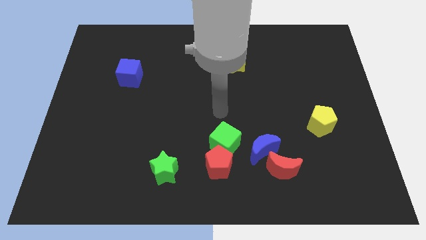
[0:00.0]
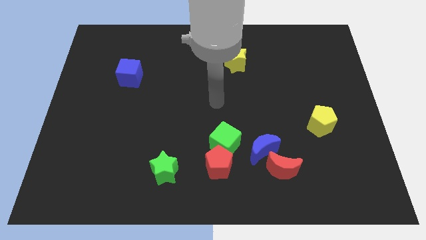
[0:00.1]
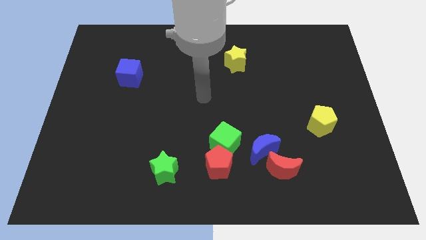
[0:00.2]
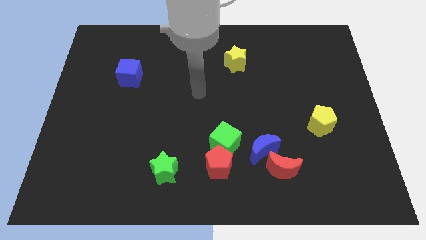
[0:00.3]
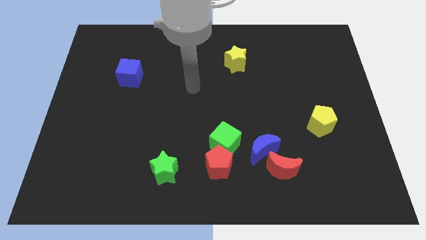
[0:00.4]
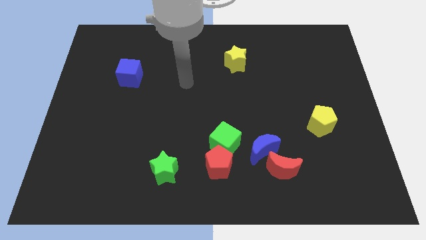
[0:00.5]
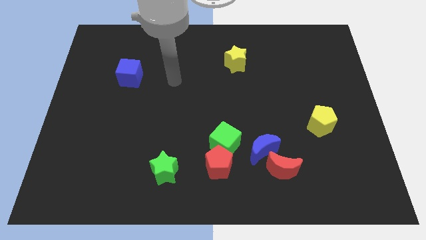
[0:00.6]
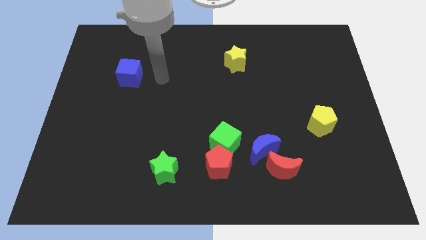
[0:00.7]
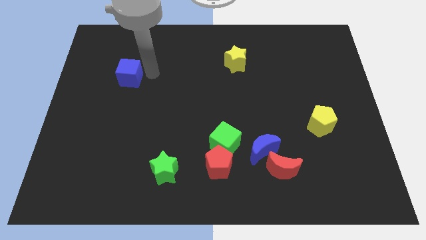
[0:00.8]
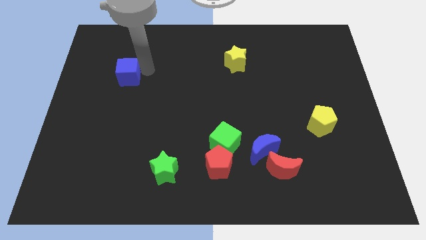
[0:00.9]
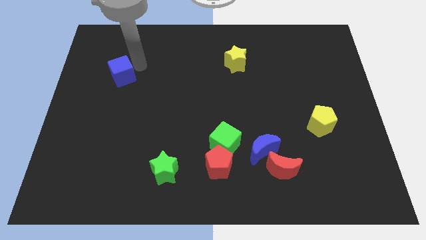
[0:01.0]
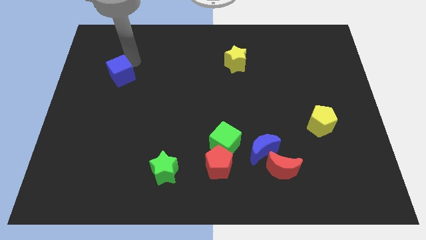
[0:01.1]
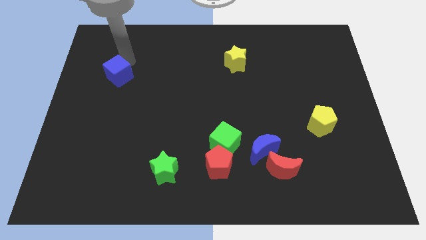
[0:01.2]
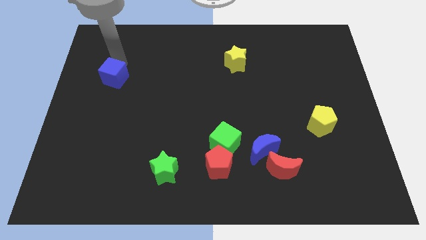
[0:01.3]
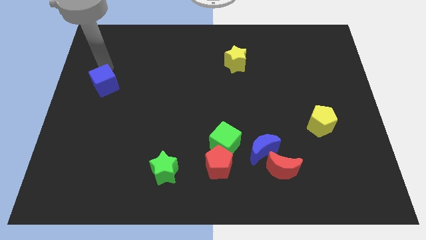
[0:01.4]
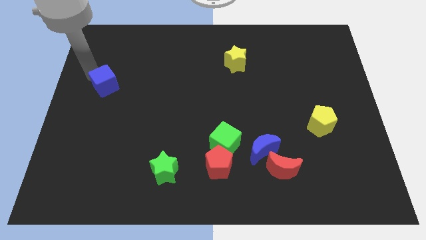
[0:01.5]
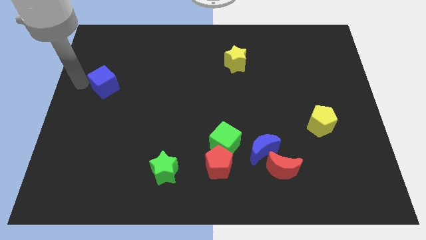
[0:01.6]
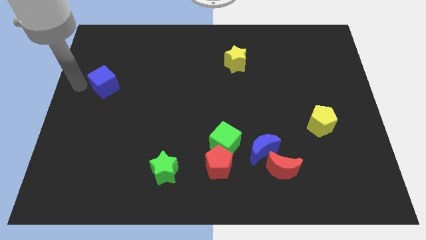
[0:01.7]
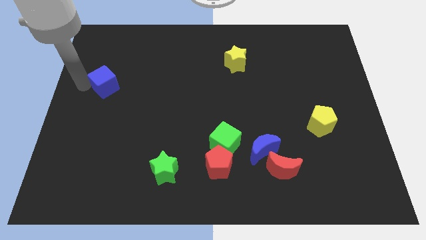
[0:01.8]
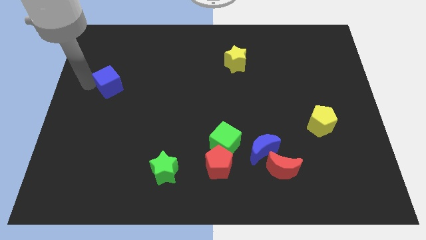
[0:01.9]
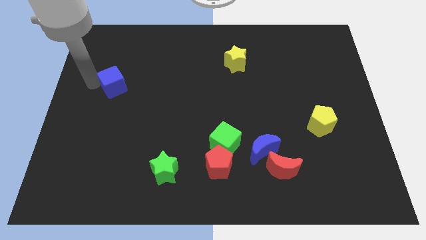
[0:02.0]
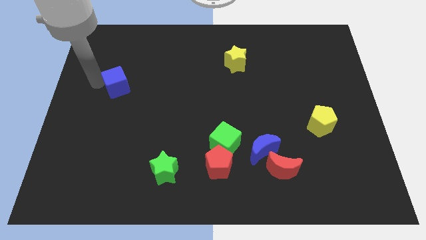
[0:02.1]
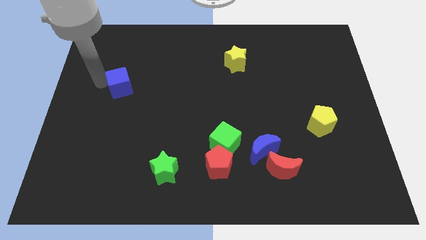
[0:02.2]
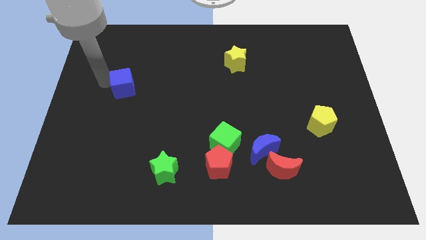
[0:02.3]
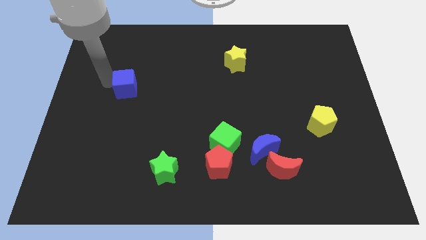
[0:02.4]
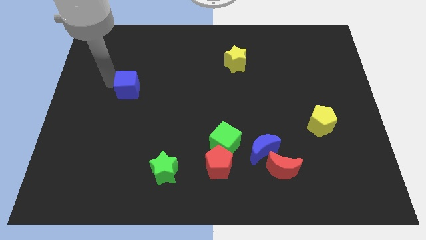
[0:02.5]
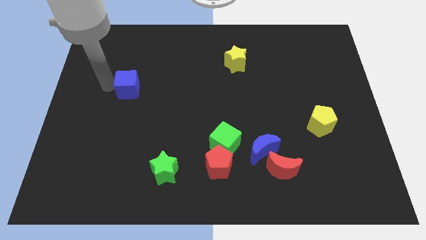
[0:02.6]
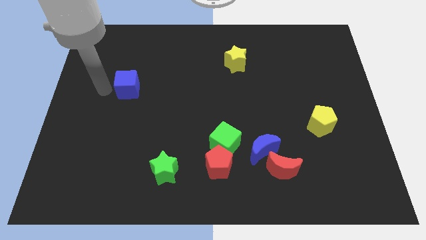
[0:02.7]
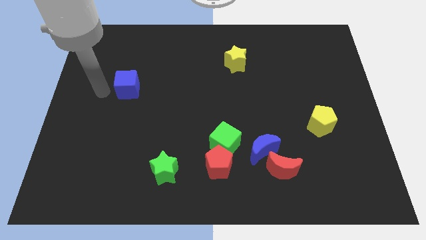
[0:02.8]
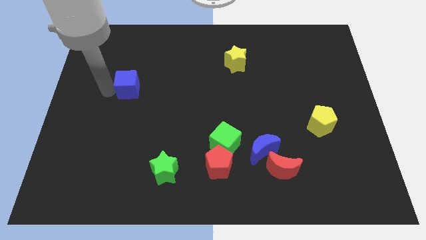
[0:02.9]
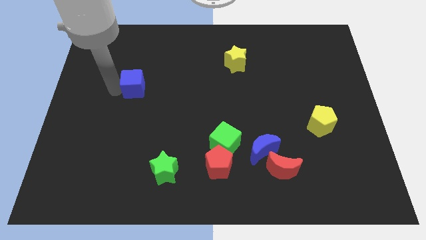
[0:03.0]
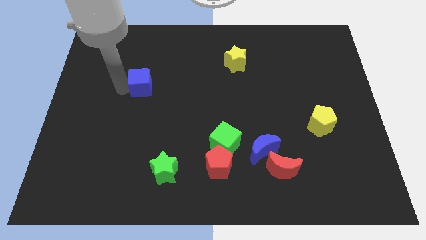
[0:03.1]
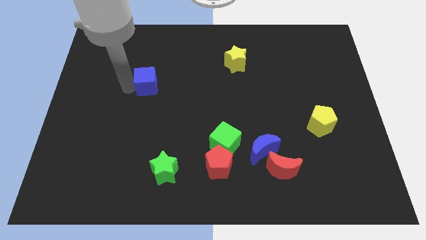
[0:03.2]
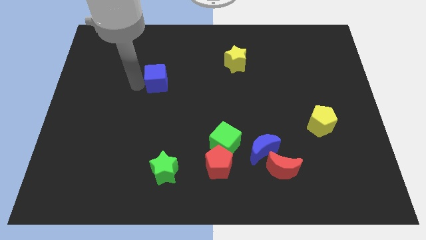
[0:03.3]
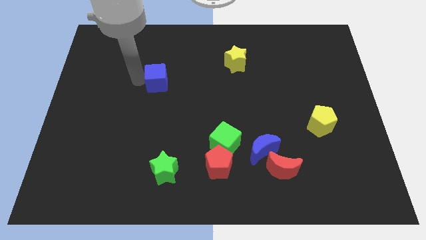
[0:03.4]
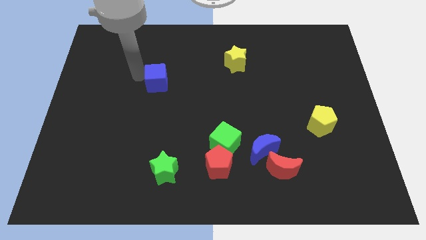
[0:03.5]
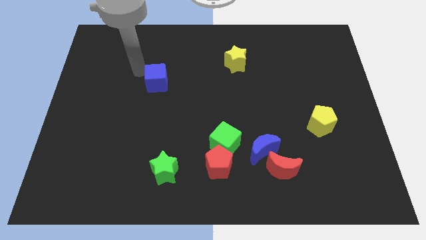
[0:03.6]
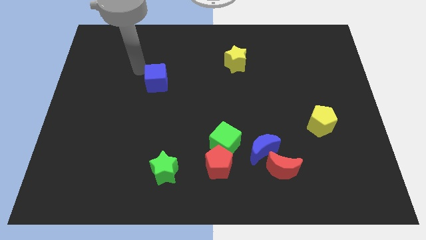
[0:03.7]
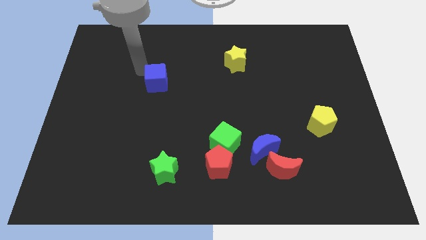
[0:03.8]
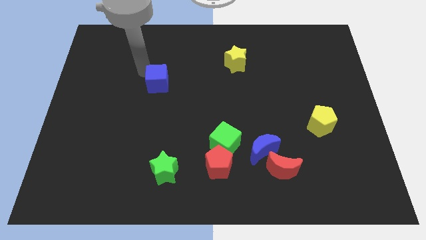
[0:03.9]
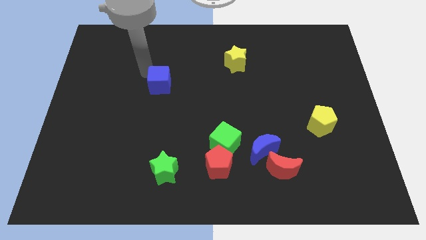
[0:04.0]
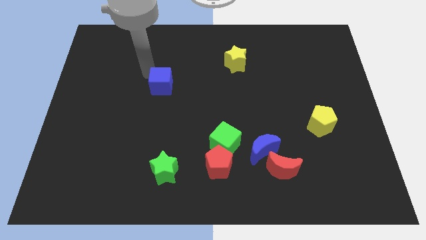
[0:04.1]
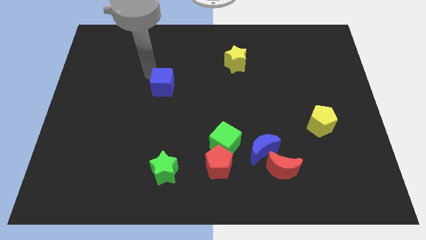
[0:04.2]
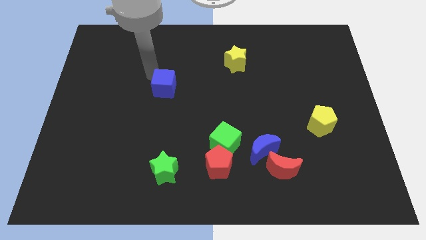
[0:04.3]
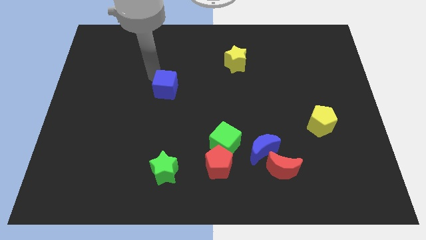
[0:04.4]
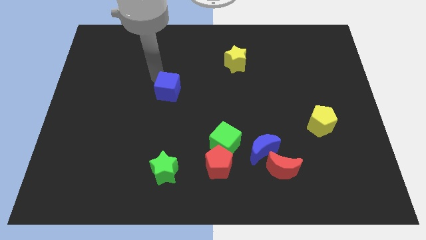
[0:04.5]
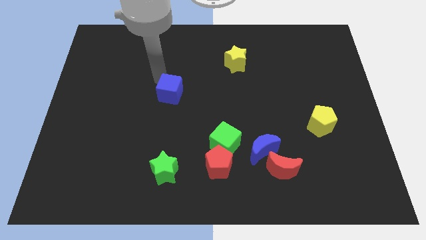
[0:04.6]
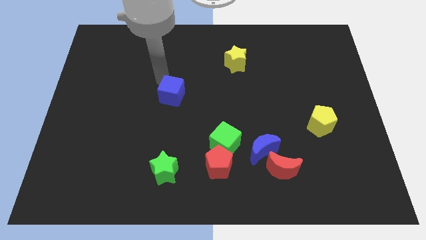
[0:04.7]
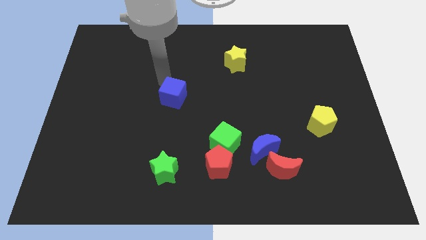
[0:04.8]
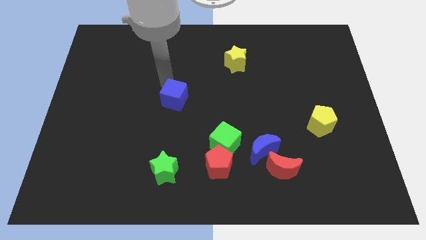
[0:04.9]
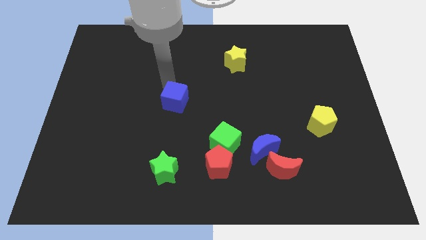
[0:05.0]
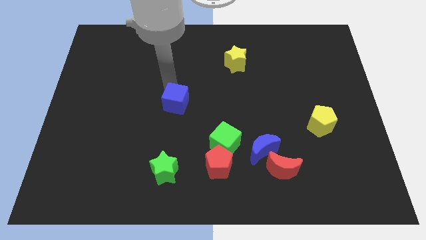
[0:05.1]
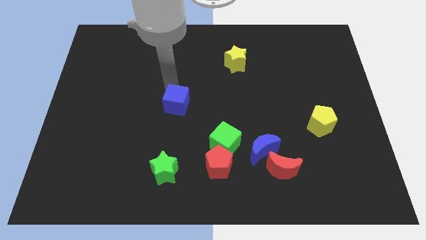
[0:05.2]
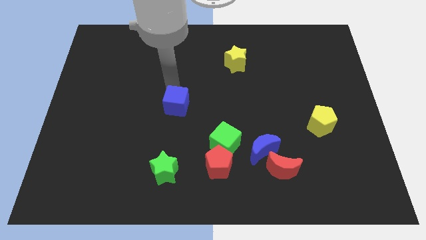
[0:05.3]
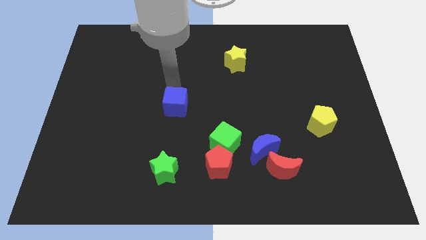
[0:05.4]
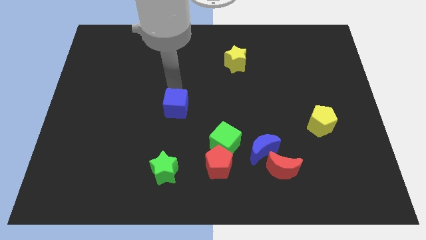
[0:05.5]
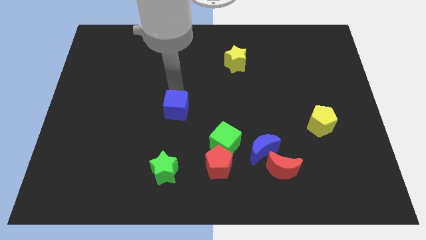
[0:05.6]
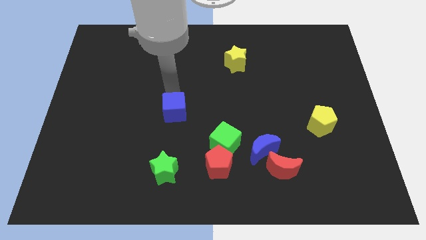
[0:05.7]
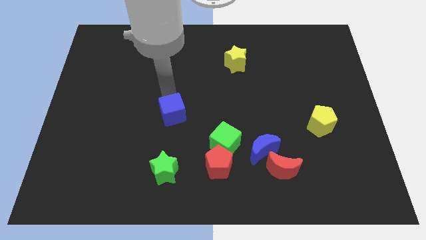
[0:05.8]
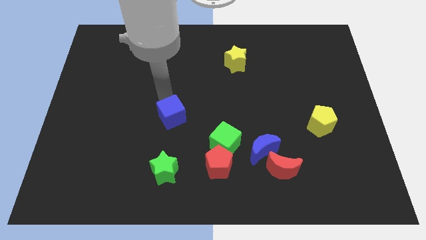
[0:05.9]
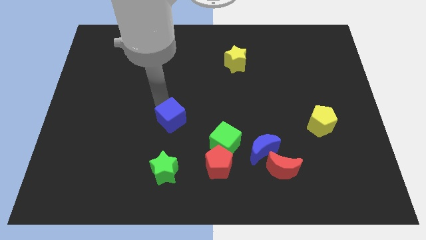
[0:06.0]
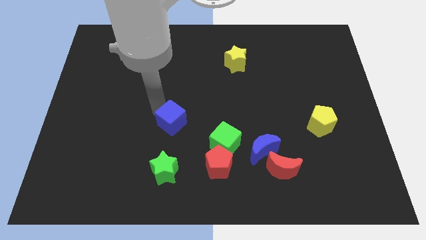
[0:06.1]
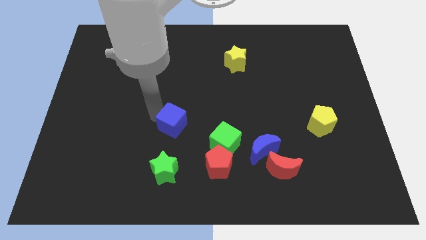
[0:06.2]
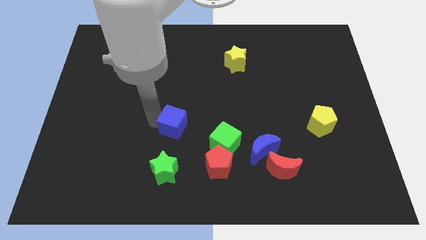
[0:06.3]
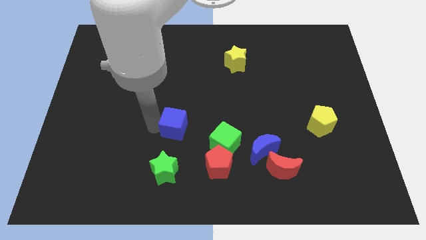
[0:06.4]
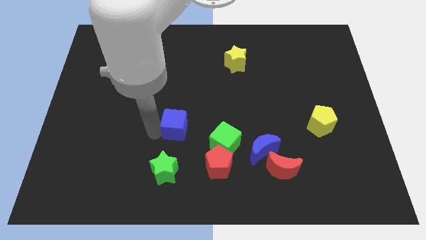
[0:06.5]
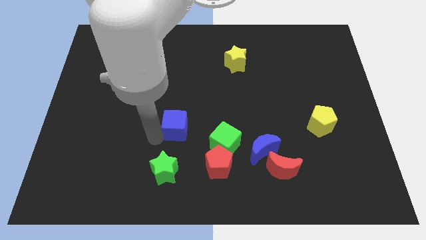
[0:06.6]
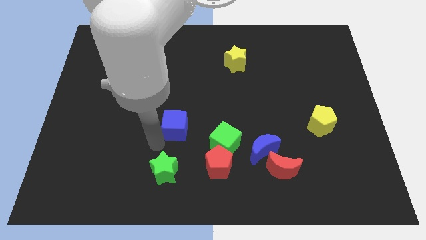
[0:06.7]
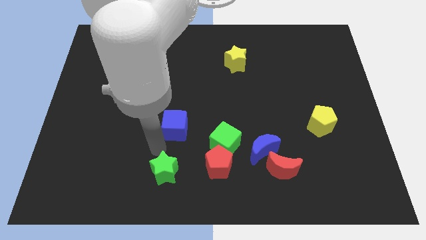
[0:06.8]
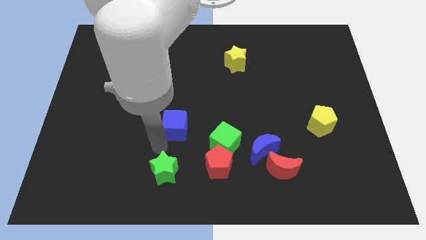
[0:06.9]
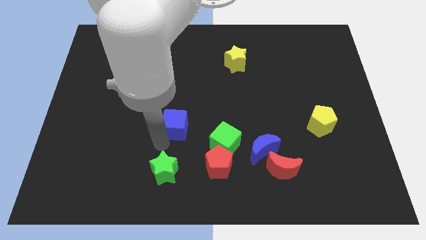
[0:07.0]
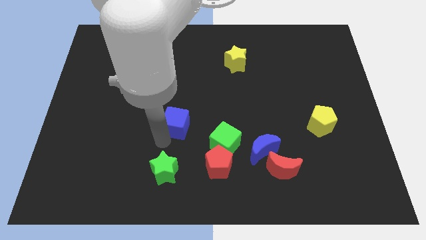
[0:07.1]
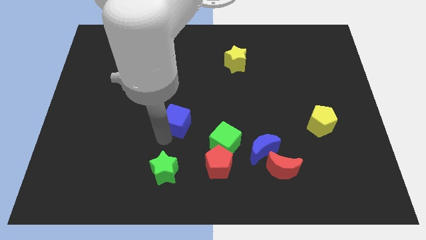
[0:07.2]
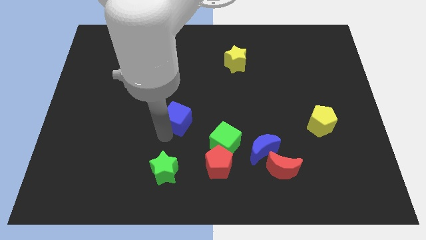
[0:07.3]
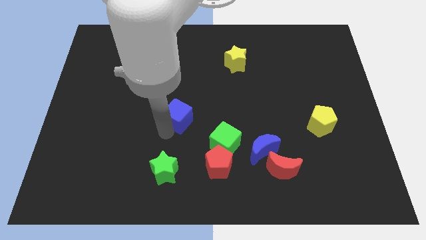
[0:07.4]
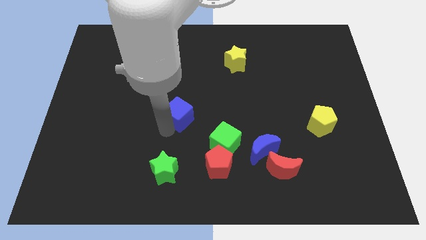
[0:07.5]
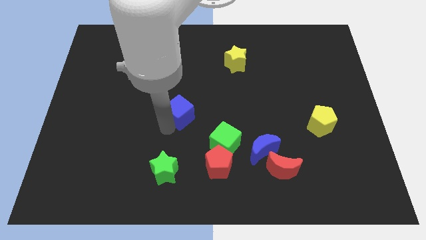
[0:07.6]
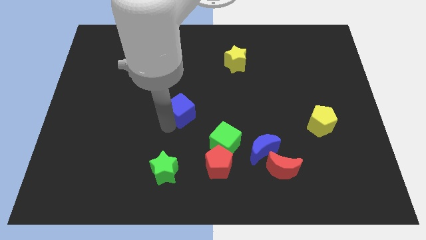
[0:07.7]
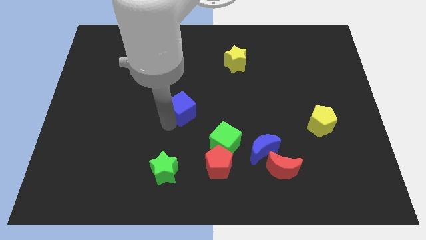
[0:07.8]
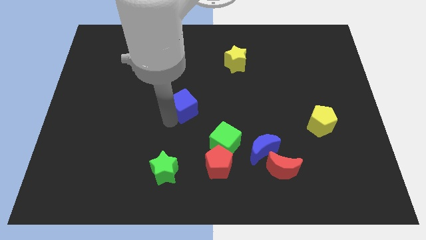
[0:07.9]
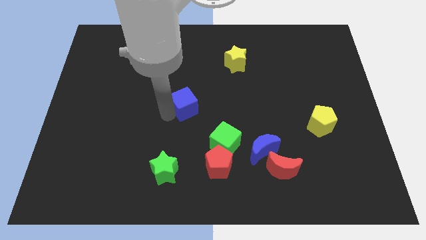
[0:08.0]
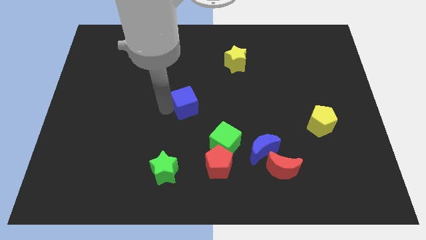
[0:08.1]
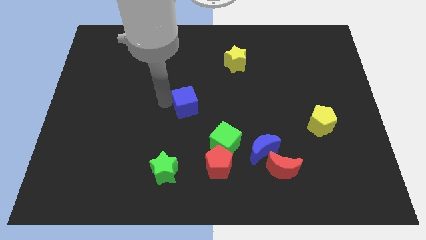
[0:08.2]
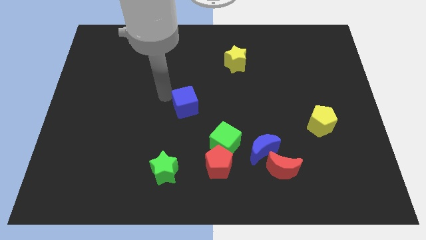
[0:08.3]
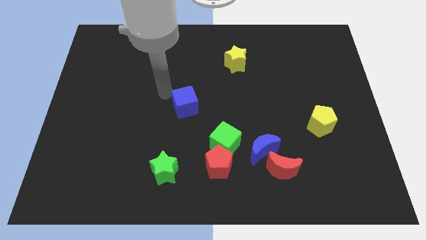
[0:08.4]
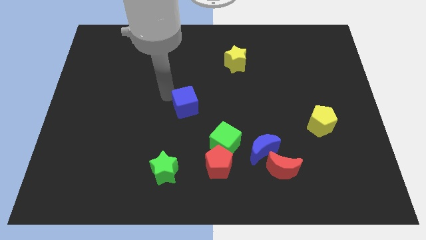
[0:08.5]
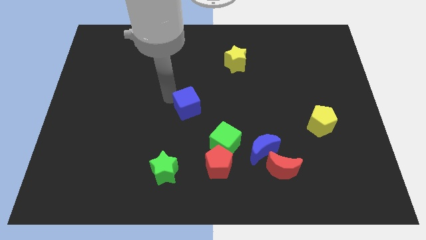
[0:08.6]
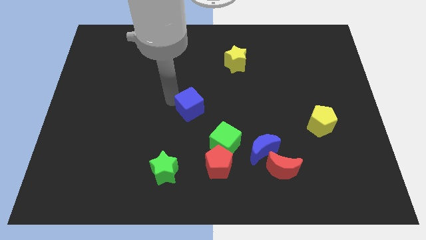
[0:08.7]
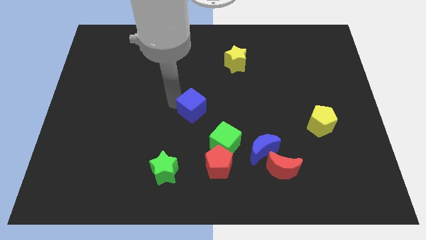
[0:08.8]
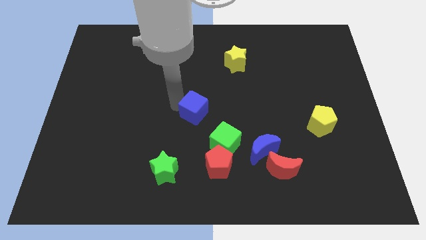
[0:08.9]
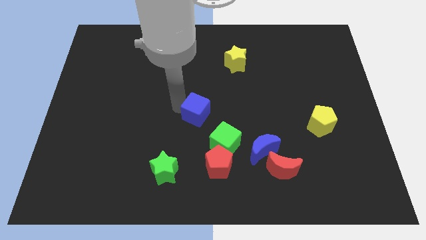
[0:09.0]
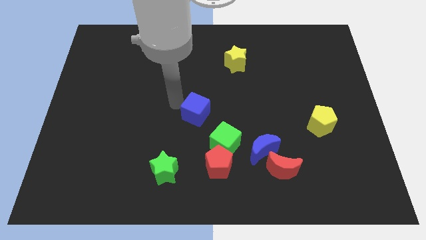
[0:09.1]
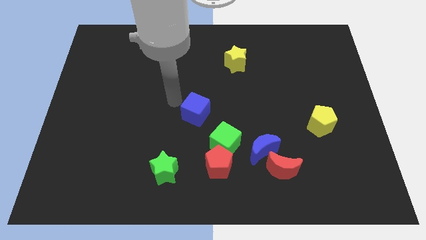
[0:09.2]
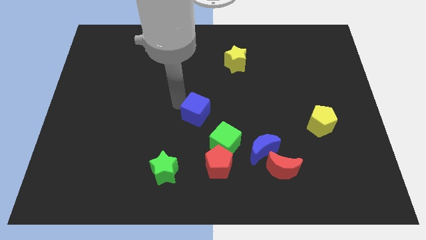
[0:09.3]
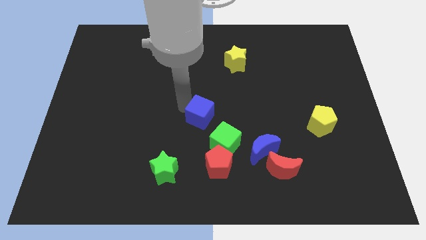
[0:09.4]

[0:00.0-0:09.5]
put the blue cube above the red pentagon
